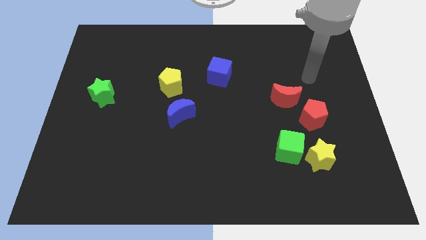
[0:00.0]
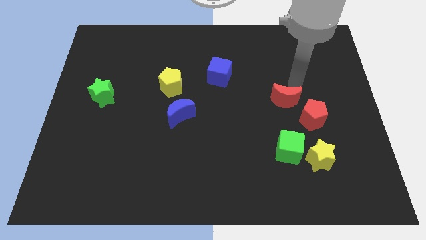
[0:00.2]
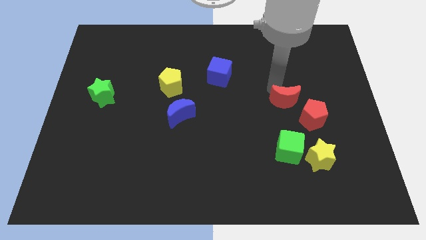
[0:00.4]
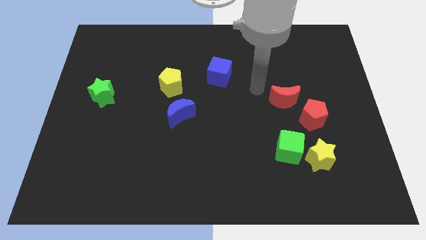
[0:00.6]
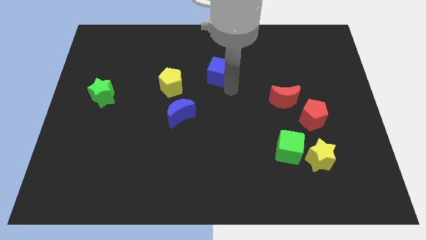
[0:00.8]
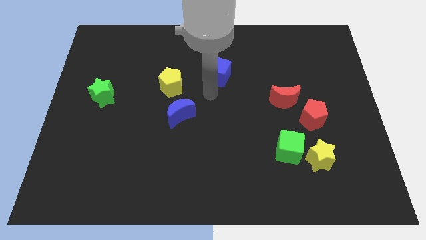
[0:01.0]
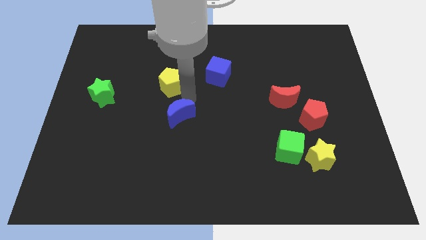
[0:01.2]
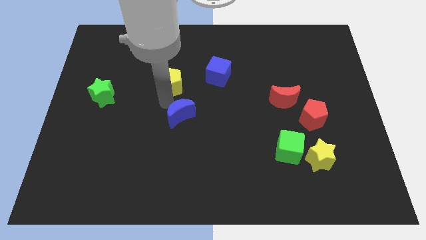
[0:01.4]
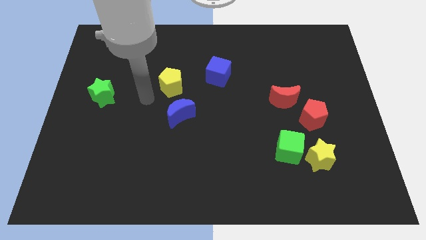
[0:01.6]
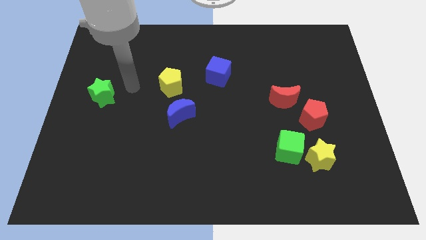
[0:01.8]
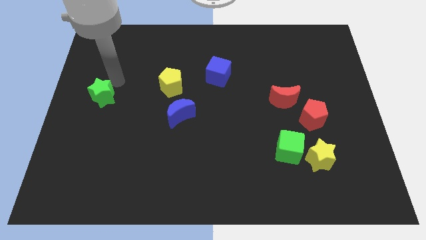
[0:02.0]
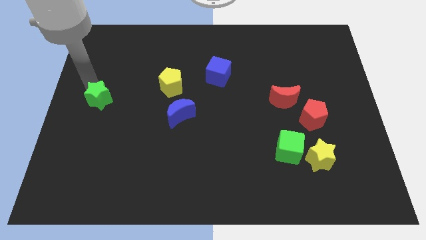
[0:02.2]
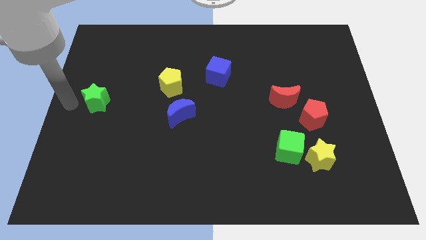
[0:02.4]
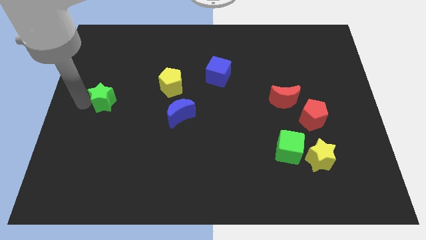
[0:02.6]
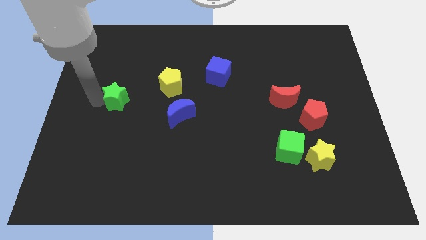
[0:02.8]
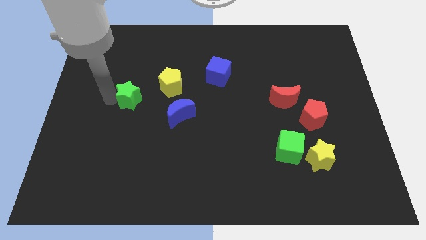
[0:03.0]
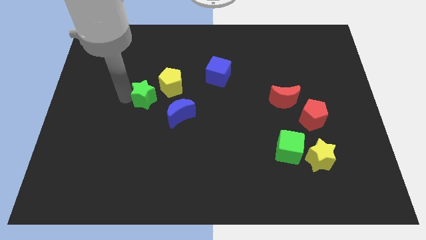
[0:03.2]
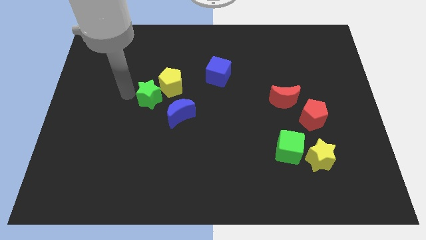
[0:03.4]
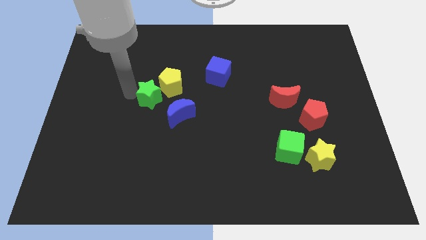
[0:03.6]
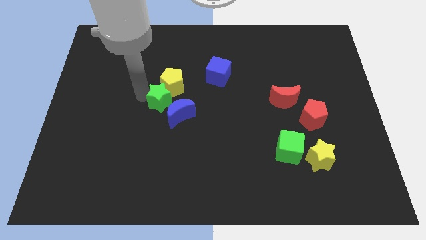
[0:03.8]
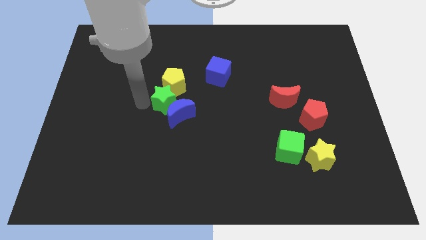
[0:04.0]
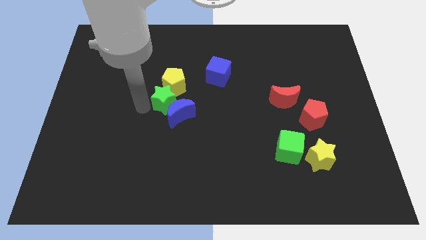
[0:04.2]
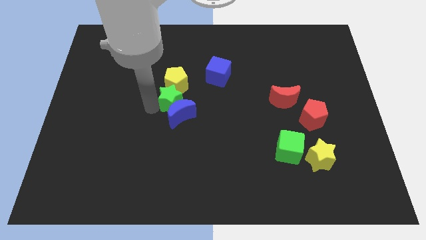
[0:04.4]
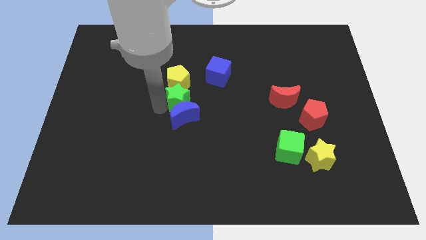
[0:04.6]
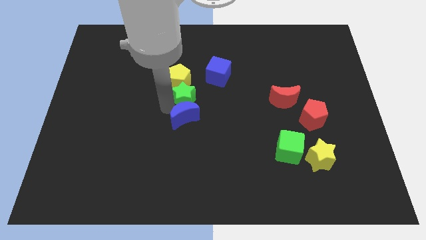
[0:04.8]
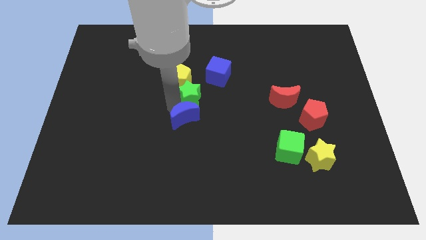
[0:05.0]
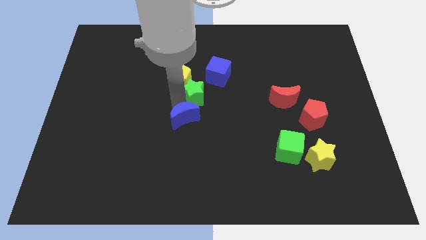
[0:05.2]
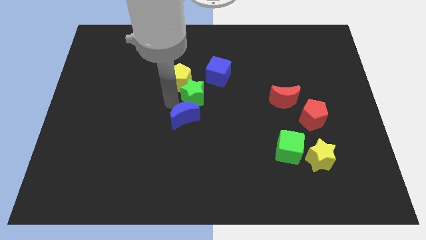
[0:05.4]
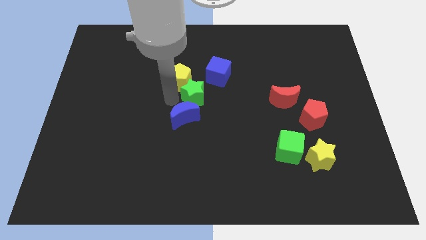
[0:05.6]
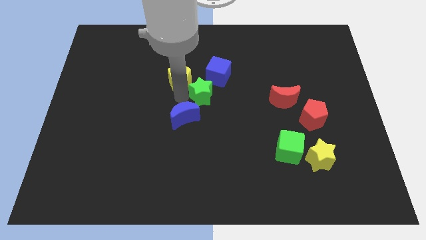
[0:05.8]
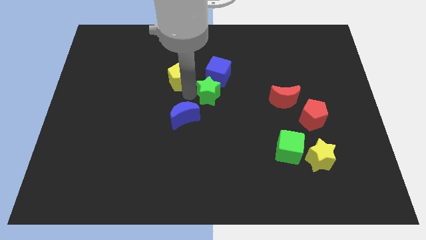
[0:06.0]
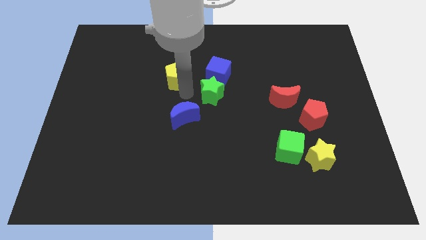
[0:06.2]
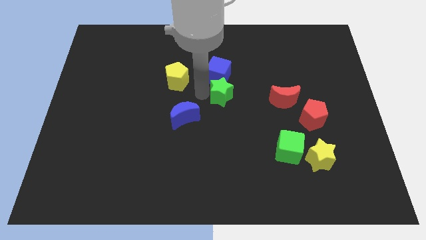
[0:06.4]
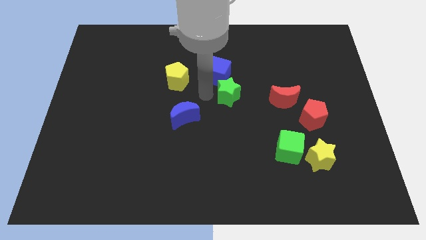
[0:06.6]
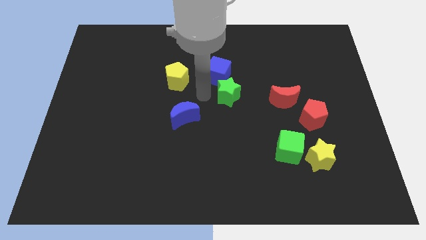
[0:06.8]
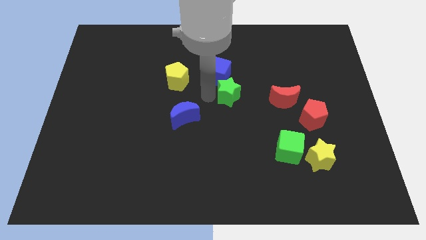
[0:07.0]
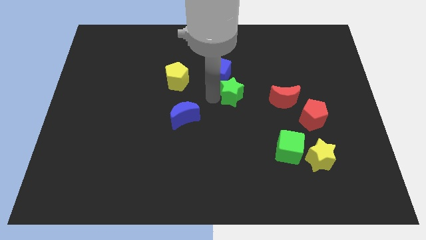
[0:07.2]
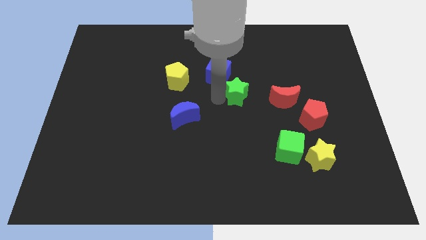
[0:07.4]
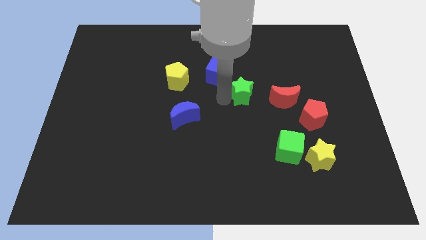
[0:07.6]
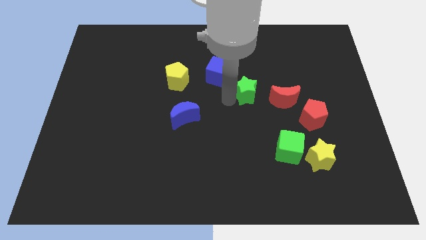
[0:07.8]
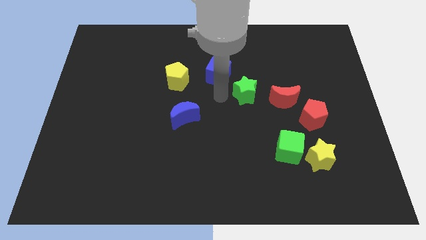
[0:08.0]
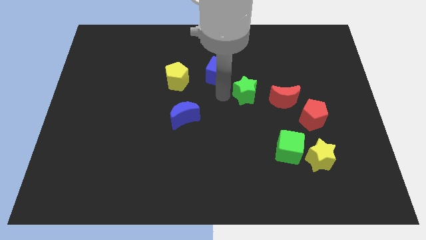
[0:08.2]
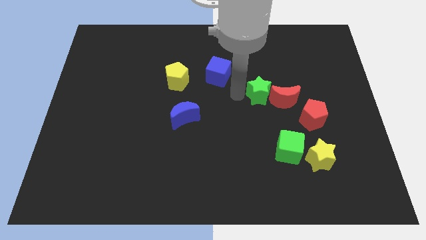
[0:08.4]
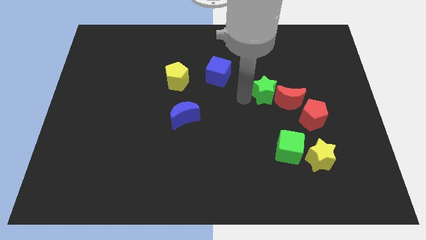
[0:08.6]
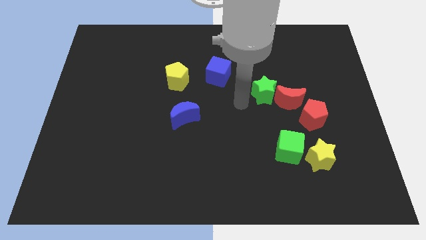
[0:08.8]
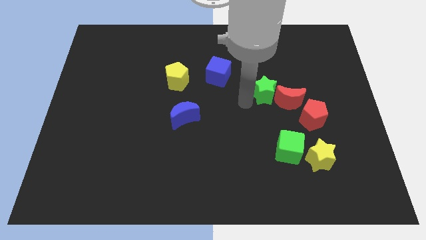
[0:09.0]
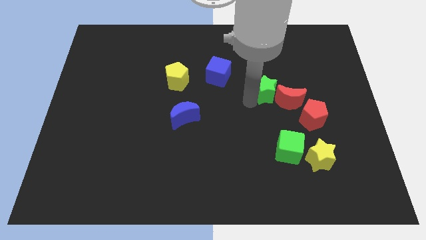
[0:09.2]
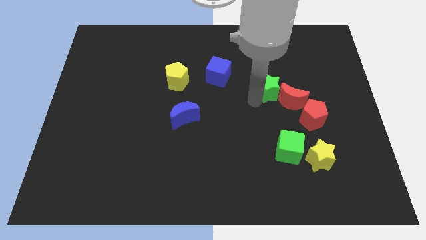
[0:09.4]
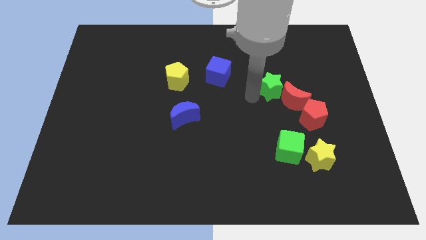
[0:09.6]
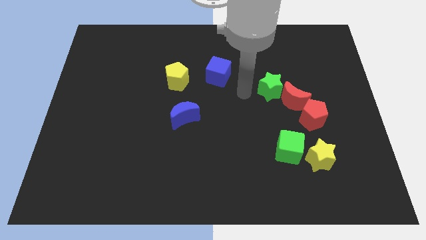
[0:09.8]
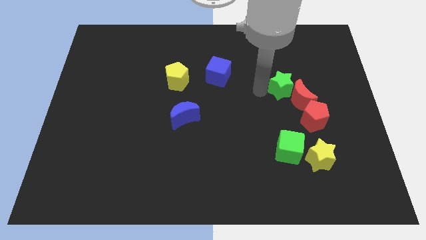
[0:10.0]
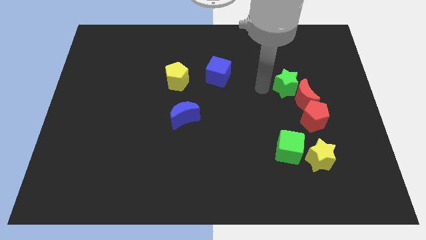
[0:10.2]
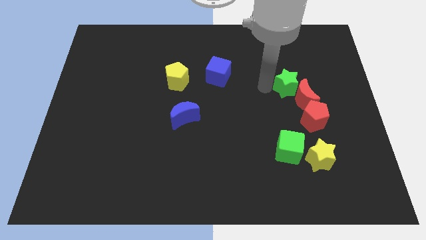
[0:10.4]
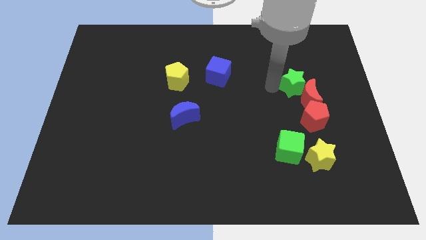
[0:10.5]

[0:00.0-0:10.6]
put the green star to the top side of the red pentagon

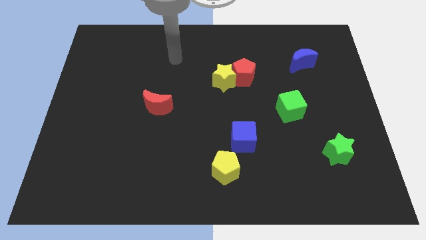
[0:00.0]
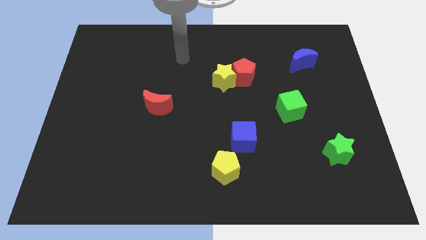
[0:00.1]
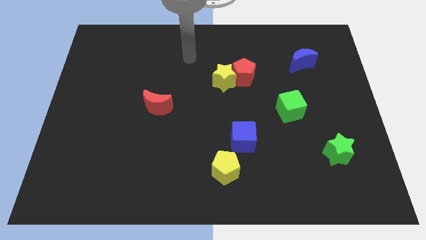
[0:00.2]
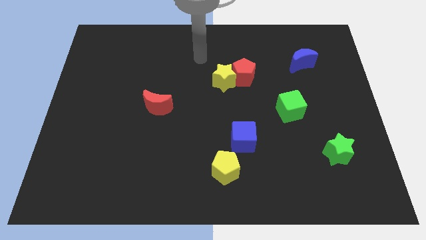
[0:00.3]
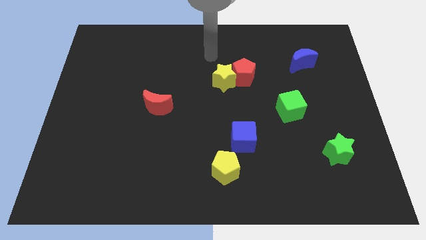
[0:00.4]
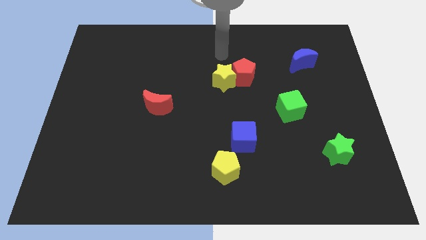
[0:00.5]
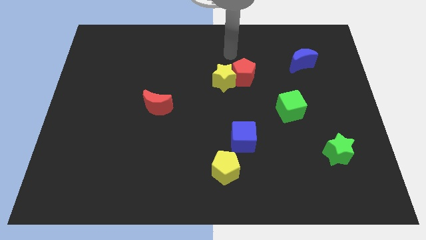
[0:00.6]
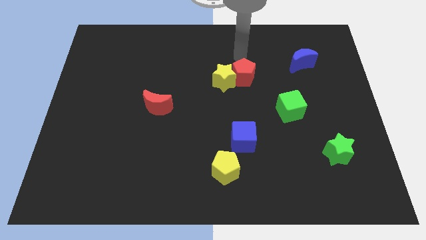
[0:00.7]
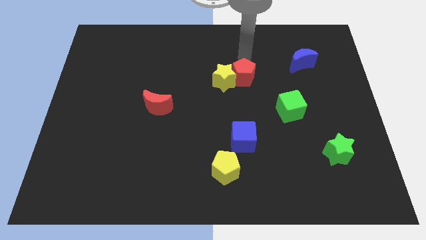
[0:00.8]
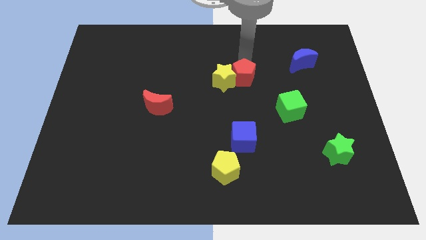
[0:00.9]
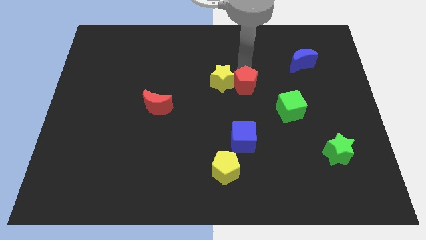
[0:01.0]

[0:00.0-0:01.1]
move the red pentagon above the blue cube
